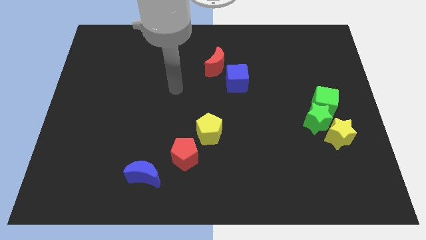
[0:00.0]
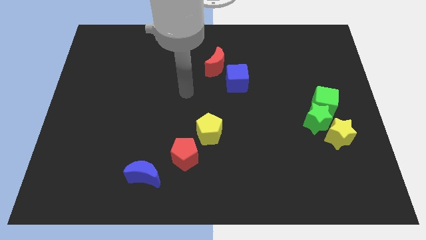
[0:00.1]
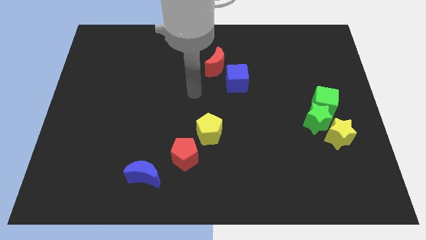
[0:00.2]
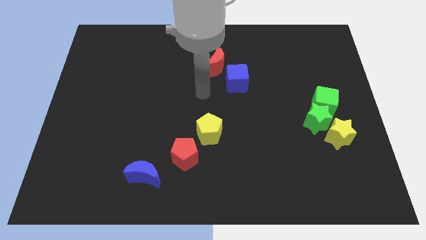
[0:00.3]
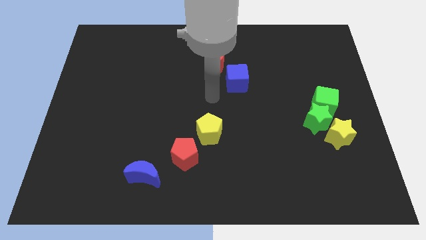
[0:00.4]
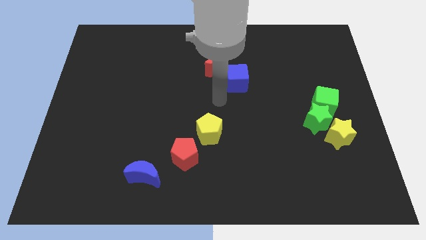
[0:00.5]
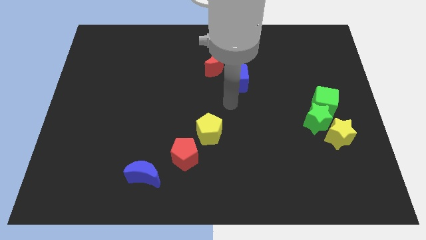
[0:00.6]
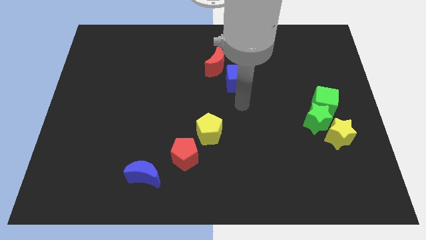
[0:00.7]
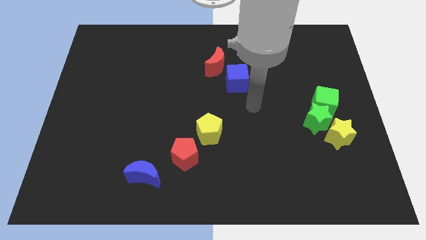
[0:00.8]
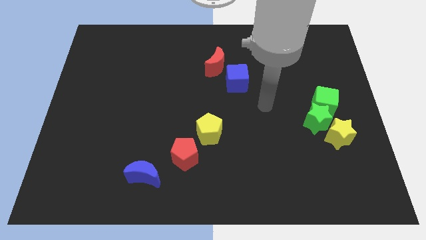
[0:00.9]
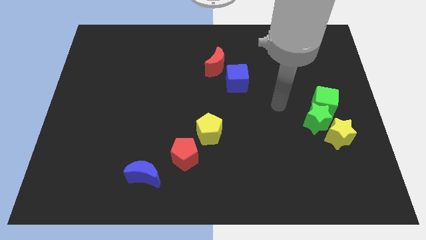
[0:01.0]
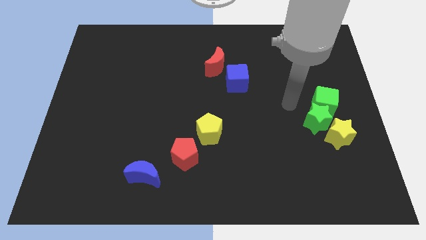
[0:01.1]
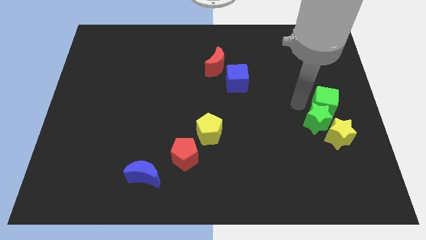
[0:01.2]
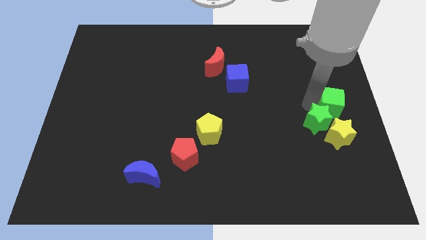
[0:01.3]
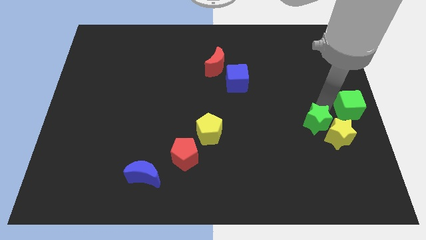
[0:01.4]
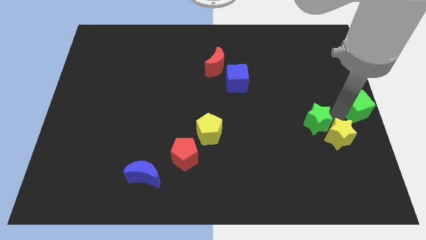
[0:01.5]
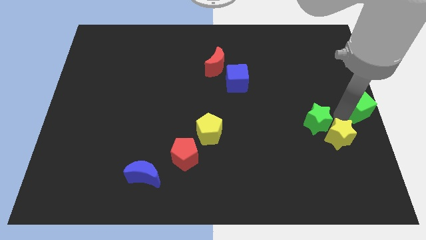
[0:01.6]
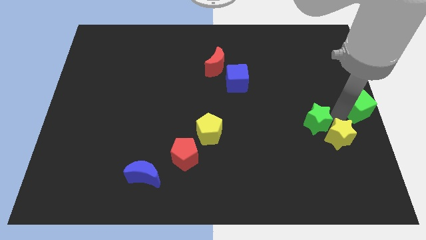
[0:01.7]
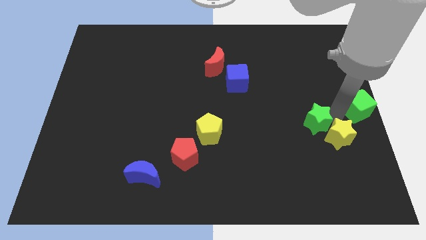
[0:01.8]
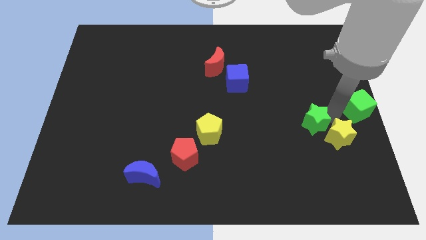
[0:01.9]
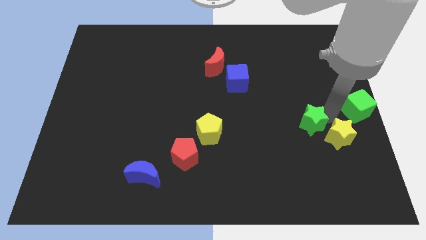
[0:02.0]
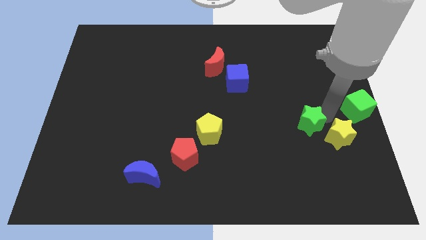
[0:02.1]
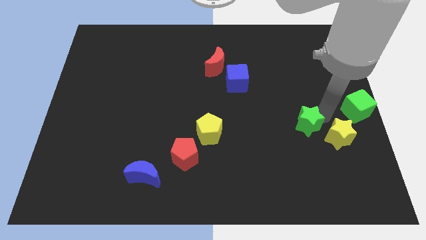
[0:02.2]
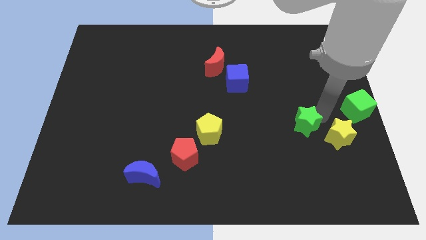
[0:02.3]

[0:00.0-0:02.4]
move the green star away from the green cube and yellow star

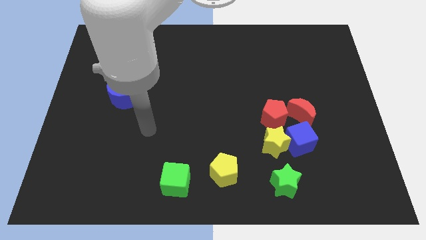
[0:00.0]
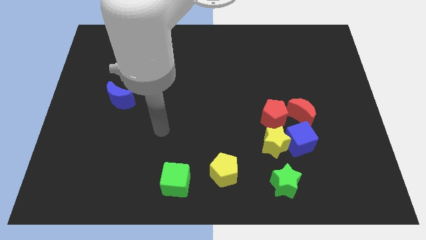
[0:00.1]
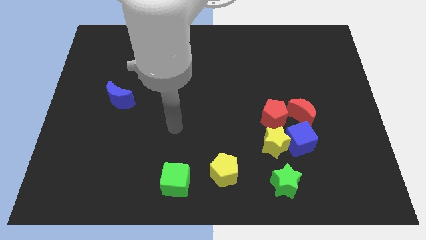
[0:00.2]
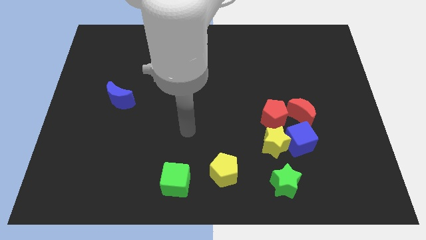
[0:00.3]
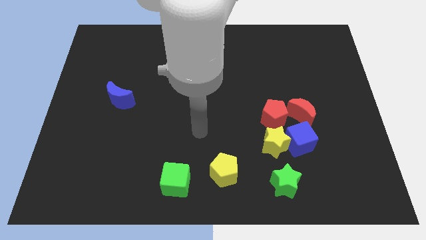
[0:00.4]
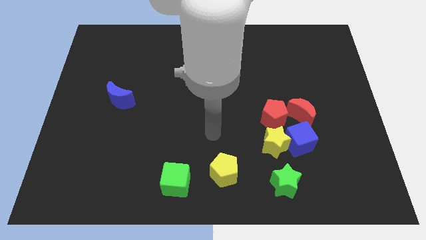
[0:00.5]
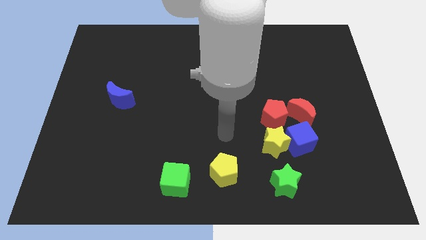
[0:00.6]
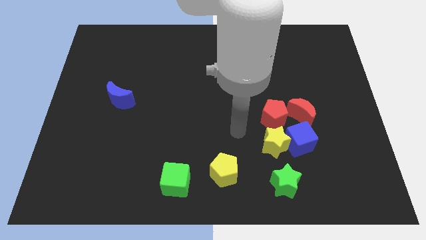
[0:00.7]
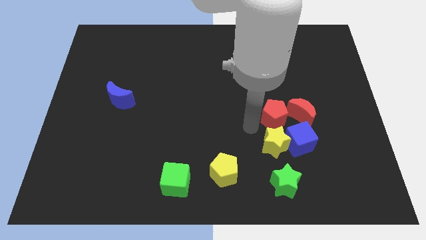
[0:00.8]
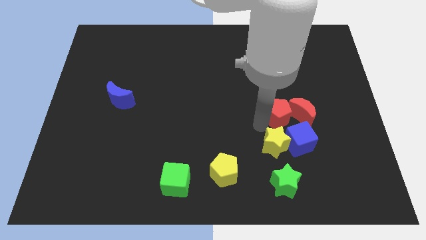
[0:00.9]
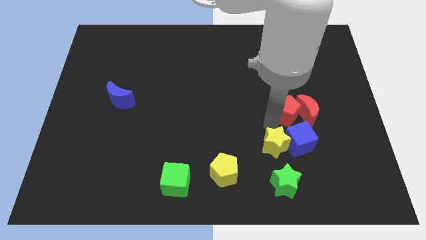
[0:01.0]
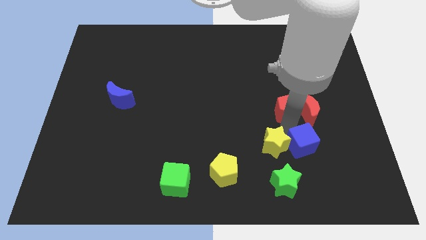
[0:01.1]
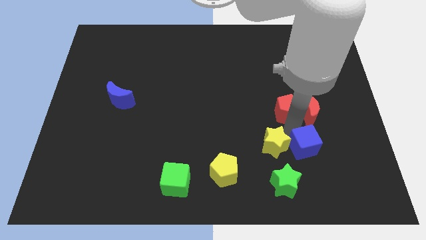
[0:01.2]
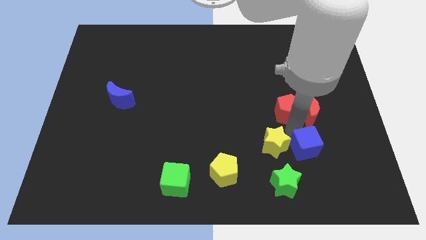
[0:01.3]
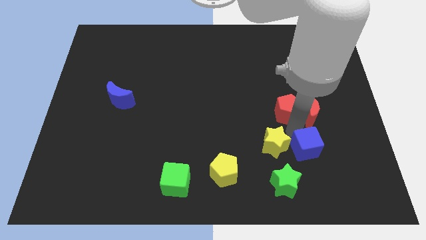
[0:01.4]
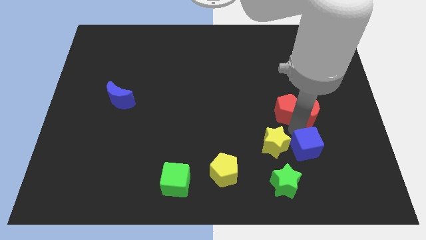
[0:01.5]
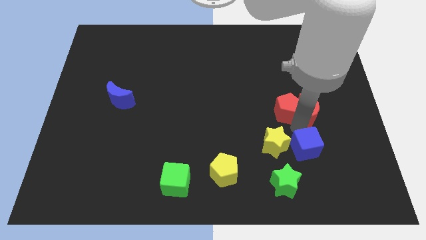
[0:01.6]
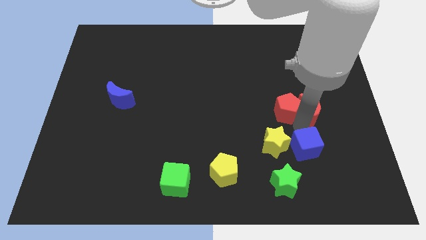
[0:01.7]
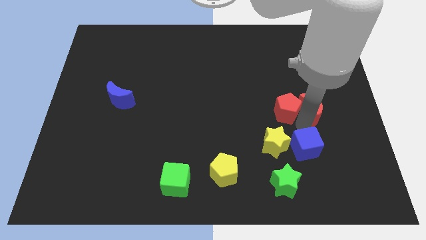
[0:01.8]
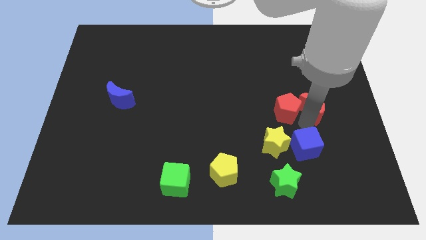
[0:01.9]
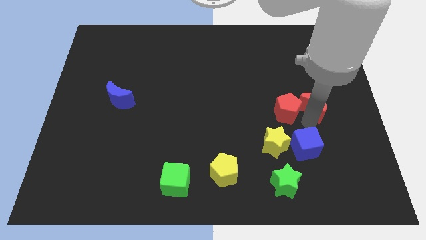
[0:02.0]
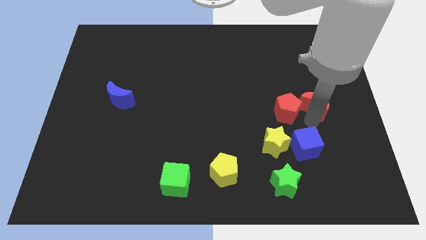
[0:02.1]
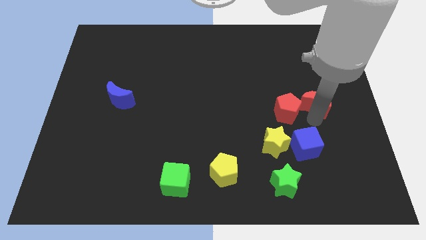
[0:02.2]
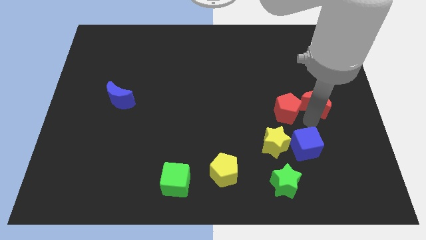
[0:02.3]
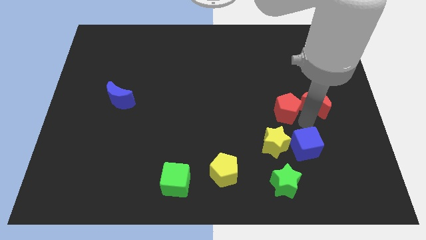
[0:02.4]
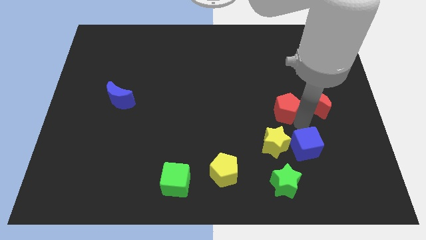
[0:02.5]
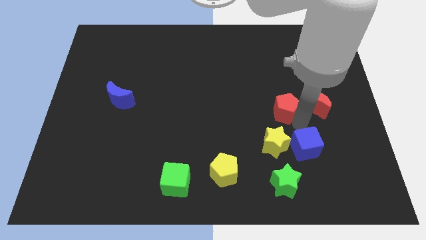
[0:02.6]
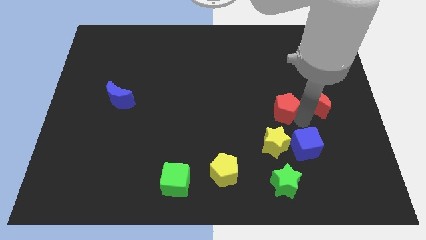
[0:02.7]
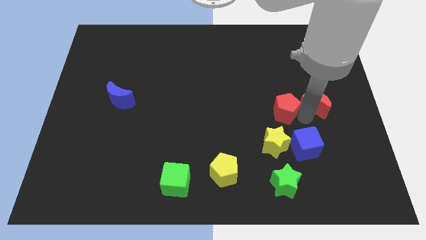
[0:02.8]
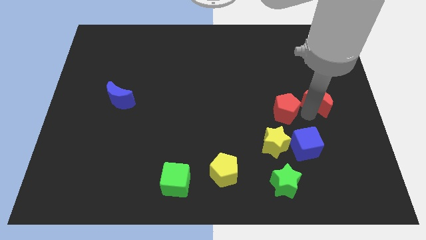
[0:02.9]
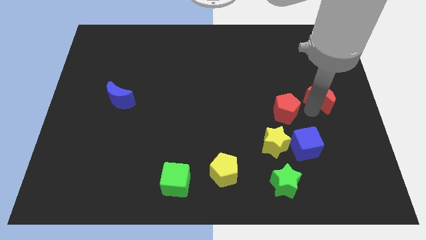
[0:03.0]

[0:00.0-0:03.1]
move the red moon away from the red pentagon and blue cube

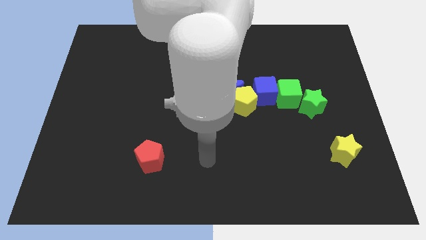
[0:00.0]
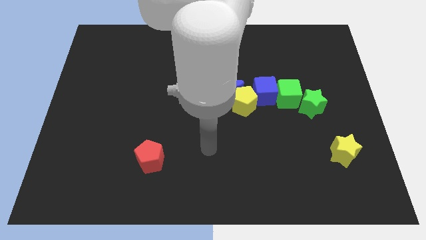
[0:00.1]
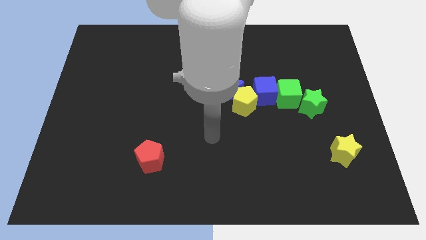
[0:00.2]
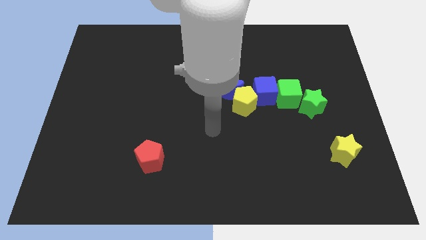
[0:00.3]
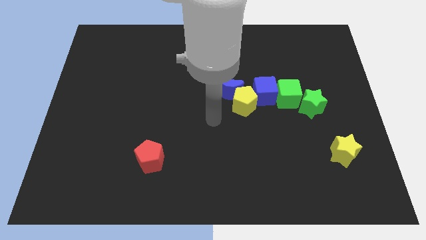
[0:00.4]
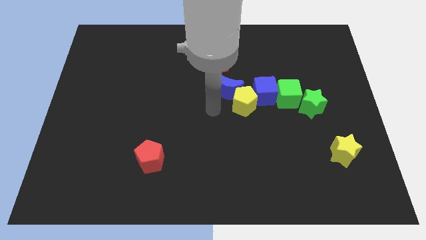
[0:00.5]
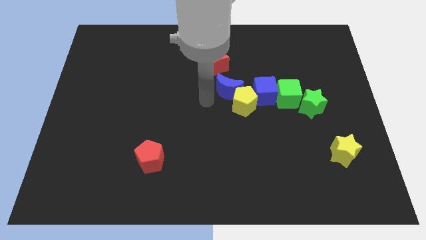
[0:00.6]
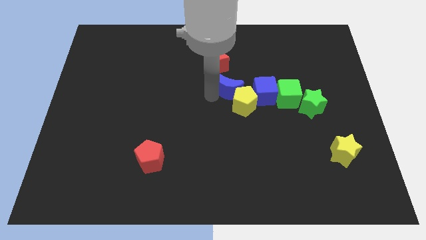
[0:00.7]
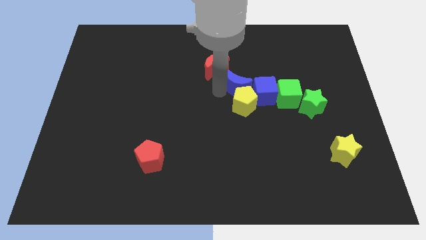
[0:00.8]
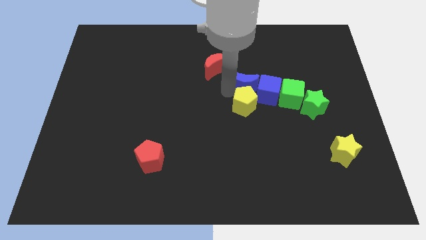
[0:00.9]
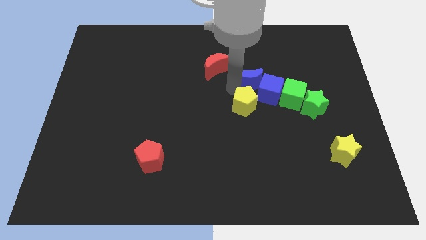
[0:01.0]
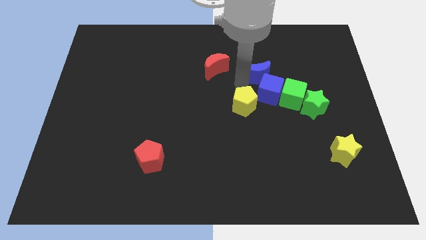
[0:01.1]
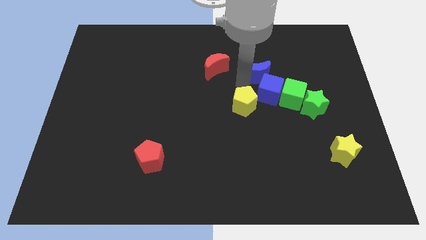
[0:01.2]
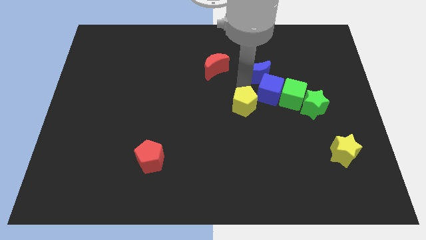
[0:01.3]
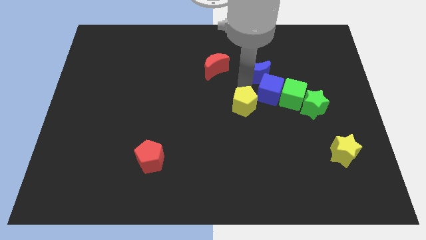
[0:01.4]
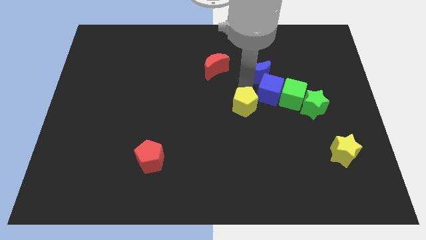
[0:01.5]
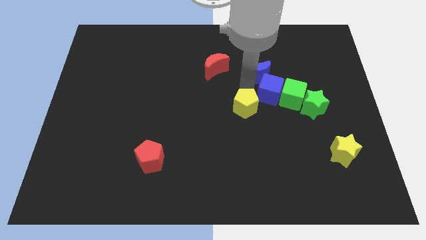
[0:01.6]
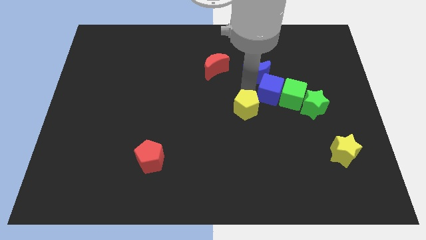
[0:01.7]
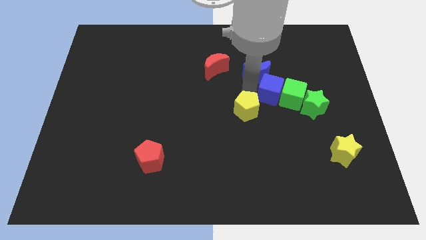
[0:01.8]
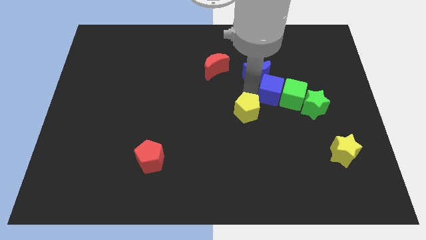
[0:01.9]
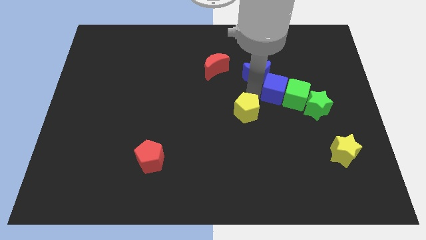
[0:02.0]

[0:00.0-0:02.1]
pull the yellow pentagon apart from the blue moon and blue cube

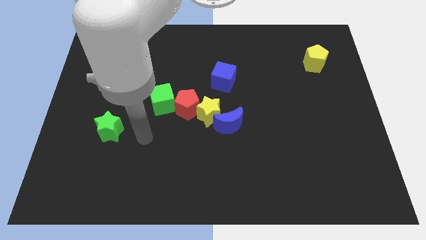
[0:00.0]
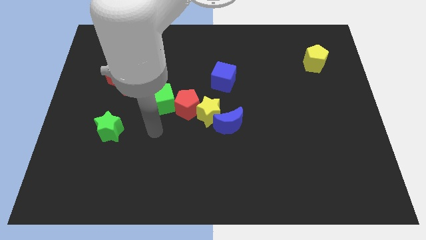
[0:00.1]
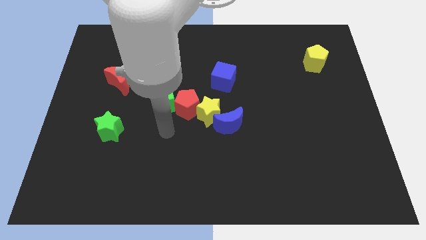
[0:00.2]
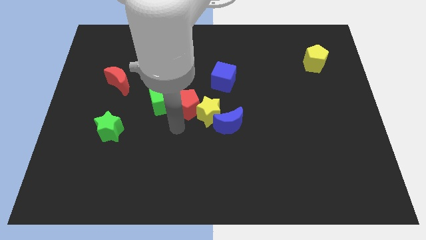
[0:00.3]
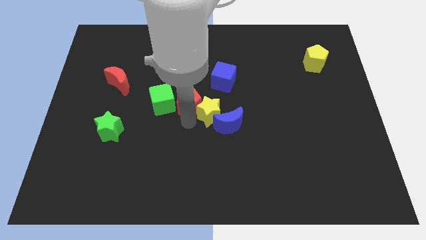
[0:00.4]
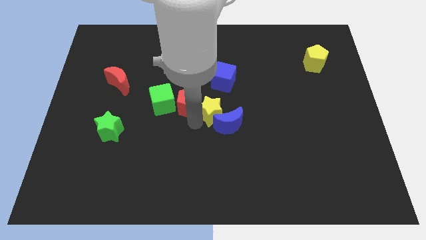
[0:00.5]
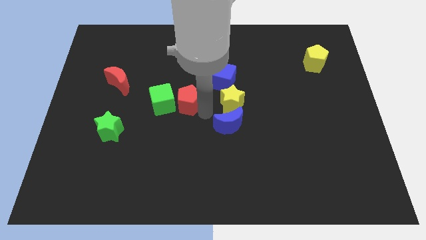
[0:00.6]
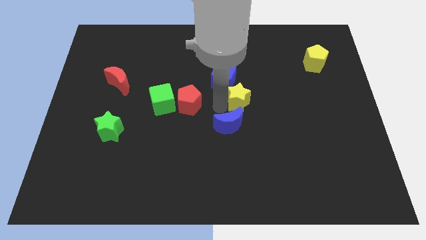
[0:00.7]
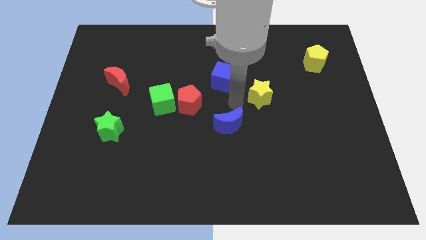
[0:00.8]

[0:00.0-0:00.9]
move the blue moon away from the yellow star

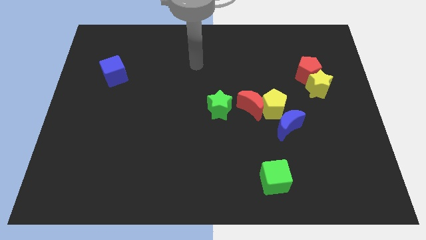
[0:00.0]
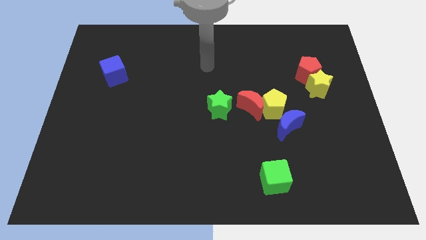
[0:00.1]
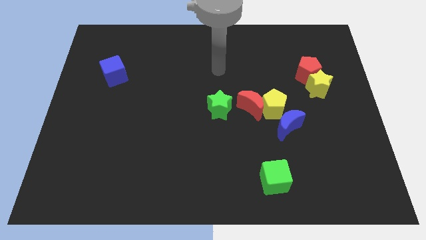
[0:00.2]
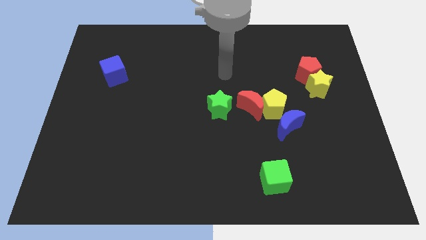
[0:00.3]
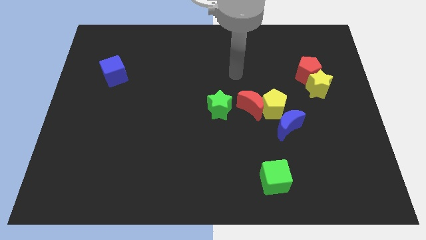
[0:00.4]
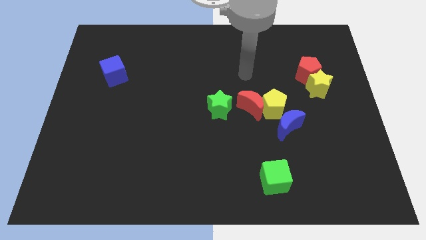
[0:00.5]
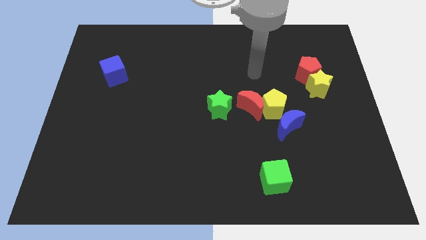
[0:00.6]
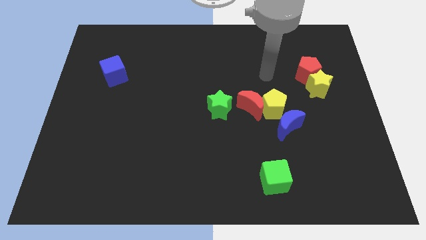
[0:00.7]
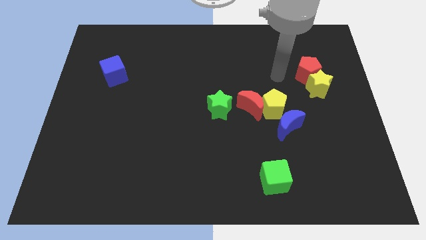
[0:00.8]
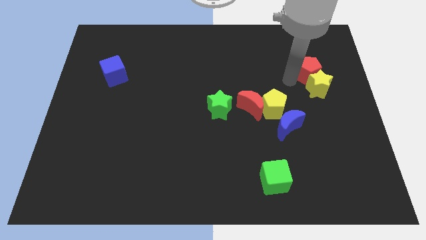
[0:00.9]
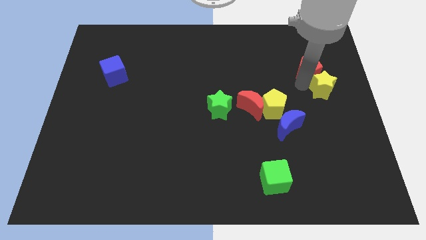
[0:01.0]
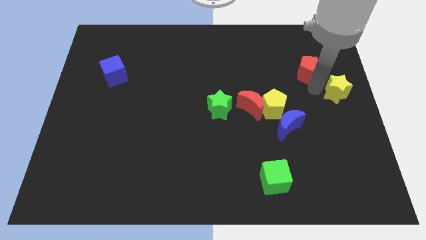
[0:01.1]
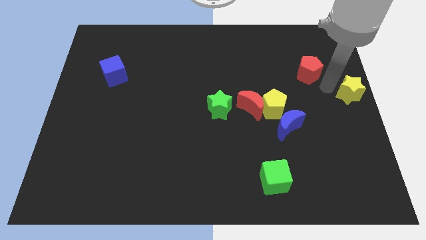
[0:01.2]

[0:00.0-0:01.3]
move the red pentagon away from the yellow star
